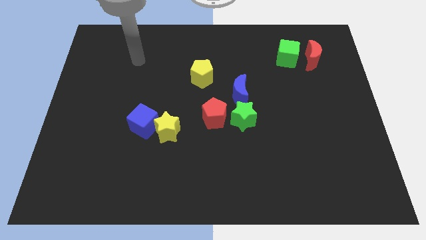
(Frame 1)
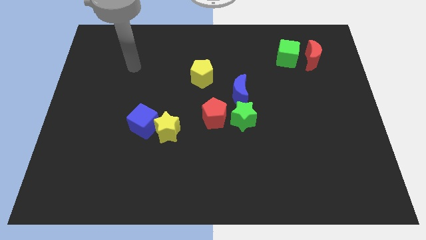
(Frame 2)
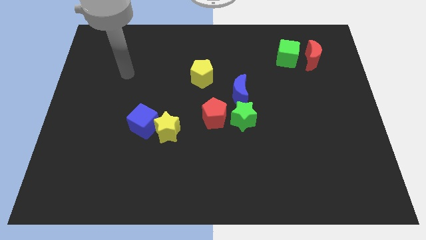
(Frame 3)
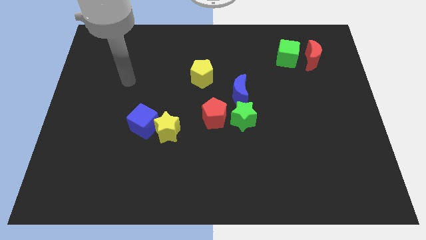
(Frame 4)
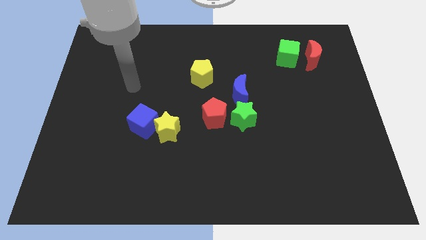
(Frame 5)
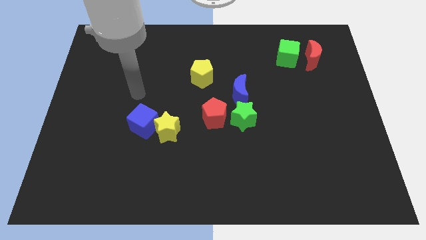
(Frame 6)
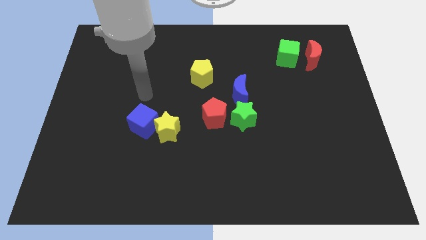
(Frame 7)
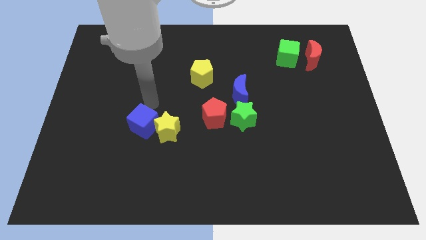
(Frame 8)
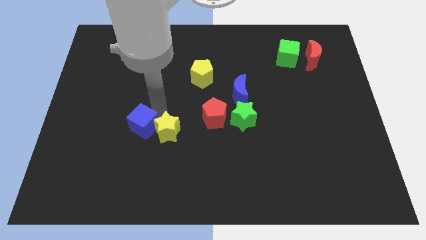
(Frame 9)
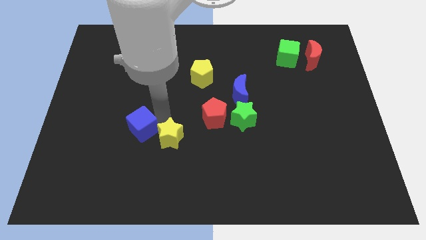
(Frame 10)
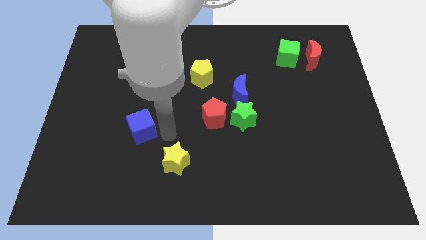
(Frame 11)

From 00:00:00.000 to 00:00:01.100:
move the blue cube away from the yellow star

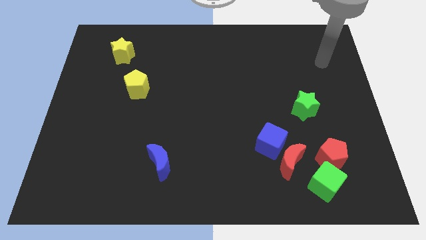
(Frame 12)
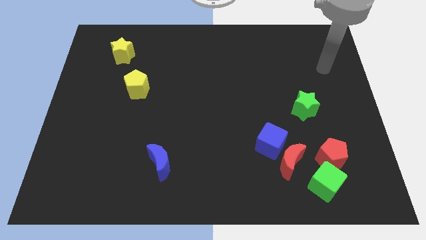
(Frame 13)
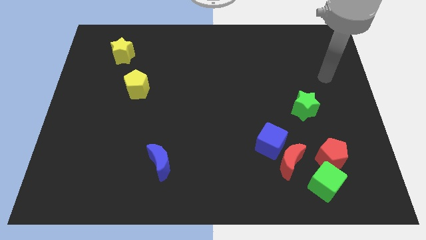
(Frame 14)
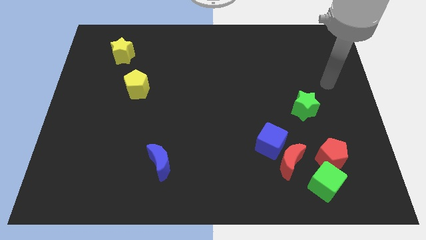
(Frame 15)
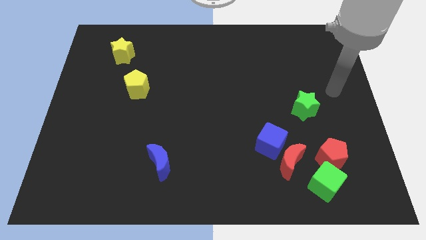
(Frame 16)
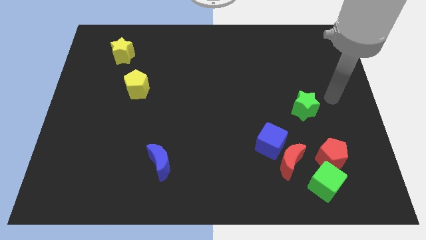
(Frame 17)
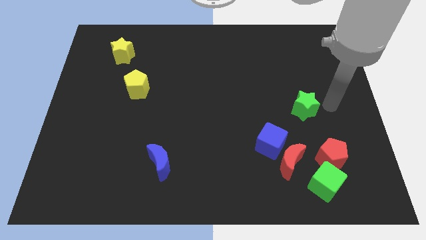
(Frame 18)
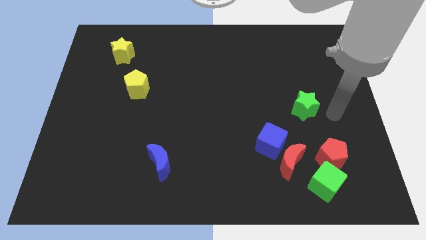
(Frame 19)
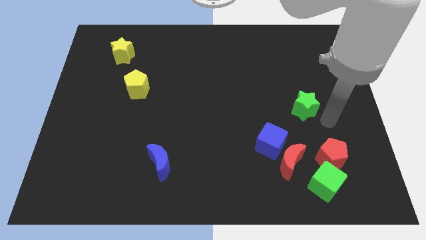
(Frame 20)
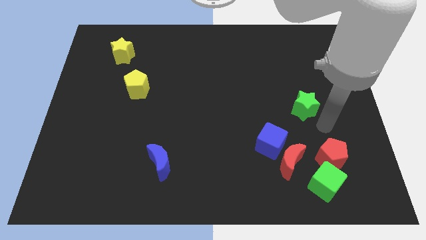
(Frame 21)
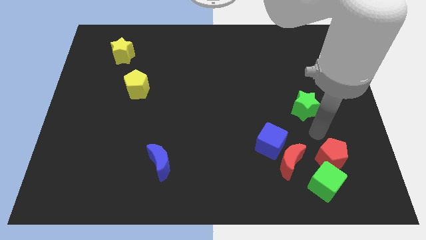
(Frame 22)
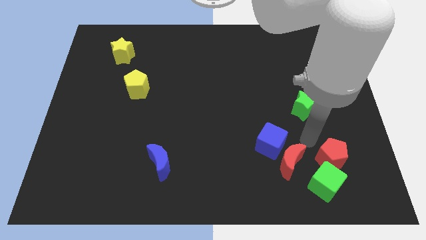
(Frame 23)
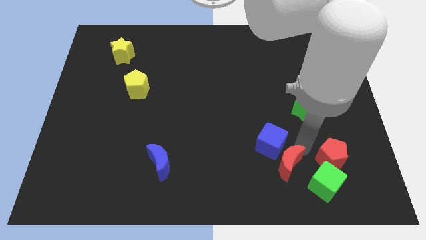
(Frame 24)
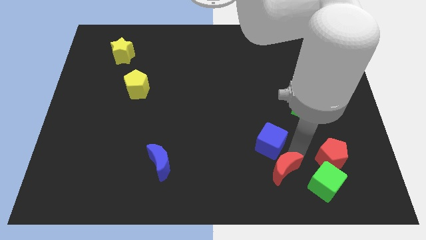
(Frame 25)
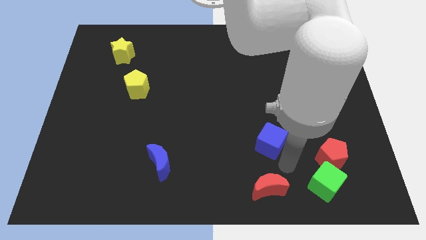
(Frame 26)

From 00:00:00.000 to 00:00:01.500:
move the blue cube away from the red moon

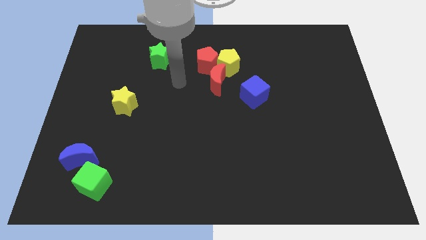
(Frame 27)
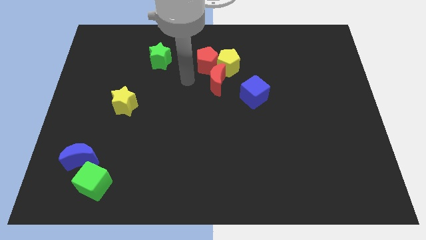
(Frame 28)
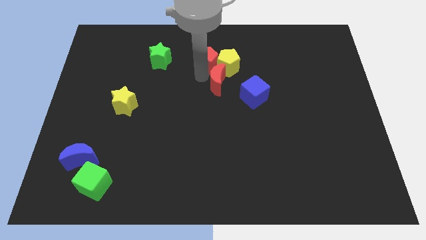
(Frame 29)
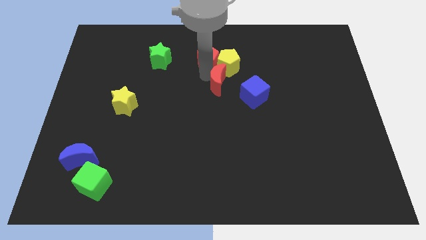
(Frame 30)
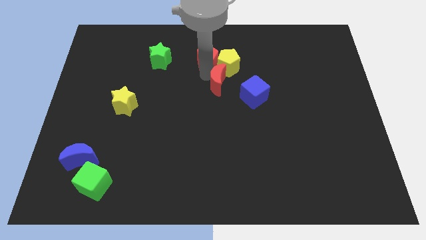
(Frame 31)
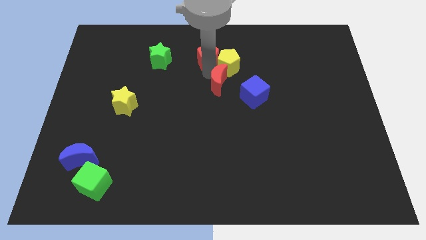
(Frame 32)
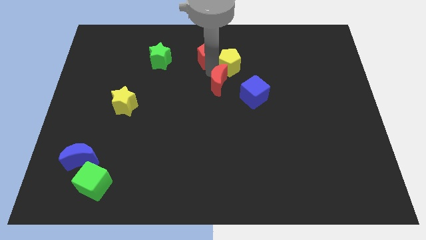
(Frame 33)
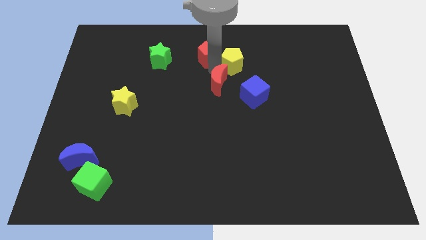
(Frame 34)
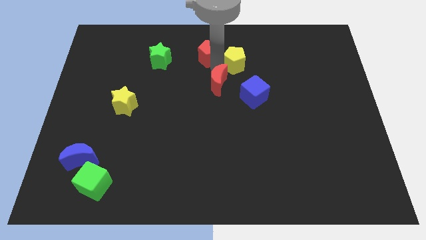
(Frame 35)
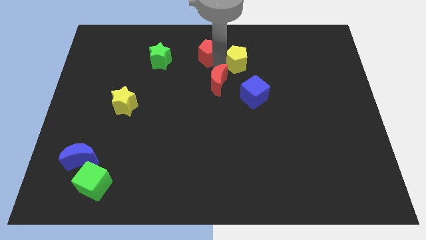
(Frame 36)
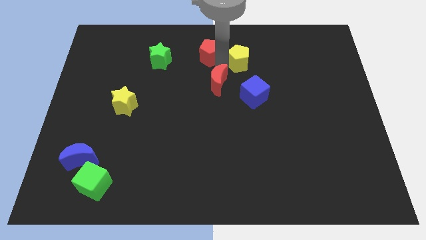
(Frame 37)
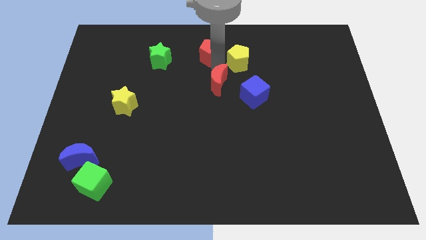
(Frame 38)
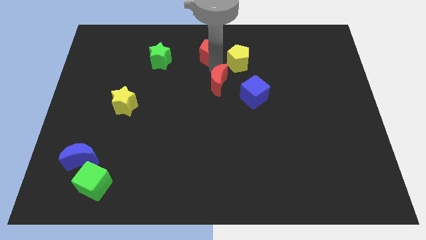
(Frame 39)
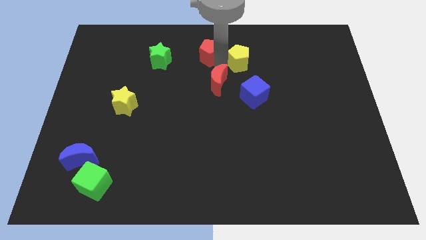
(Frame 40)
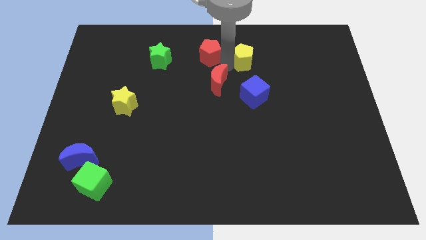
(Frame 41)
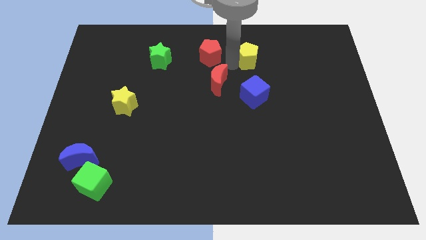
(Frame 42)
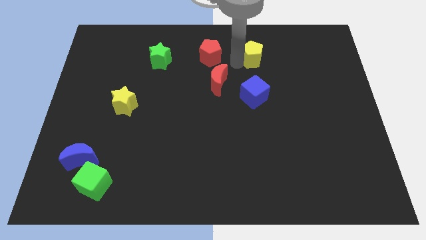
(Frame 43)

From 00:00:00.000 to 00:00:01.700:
separate the yellow pentagon from the red pentagon and red moon

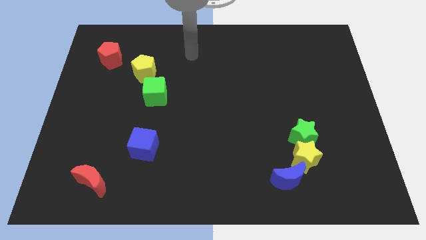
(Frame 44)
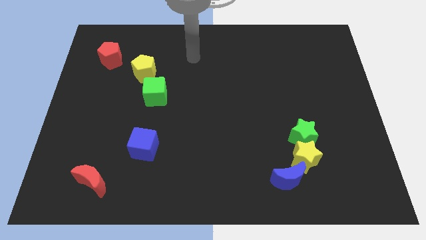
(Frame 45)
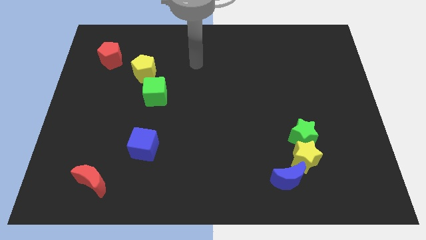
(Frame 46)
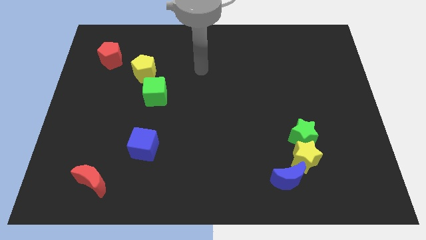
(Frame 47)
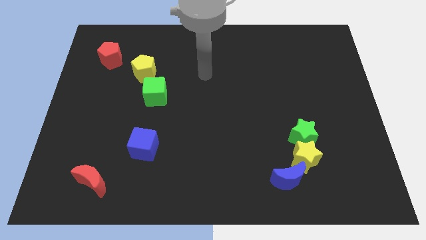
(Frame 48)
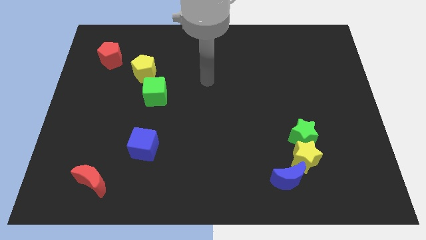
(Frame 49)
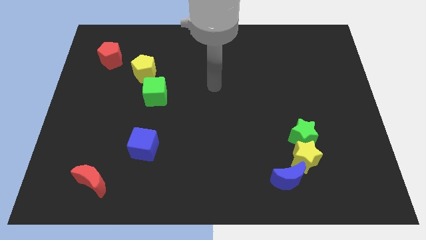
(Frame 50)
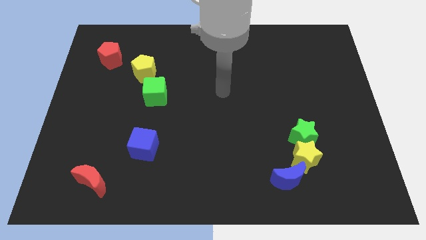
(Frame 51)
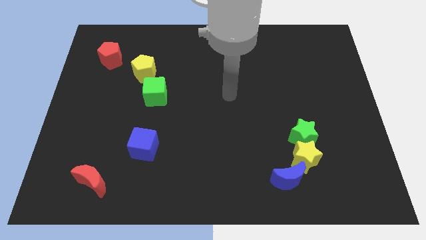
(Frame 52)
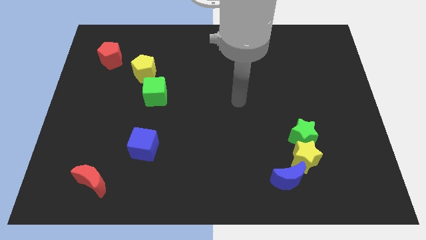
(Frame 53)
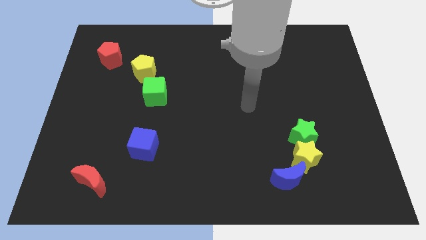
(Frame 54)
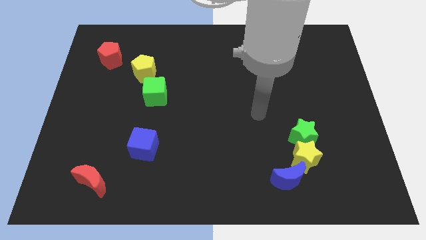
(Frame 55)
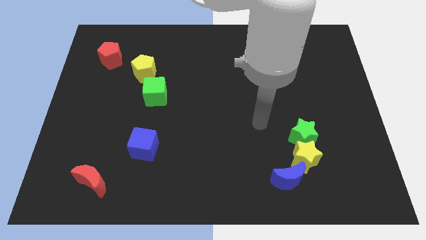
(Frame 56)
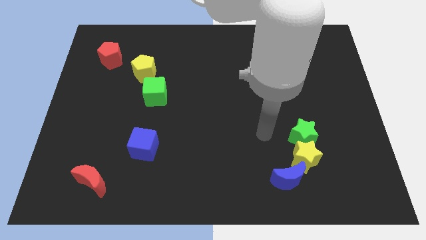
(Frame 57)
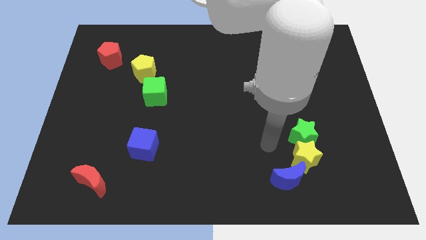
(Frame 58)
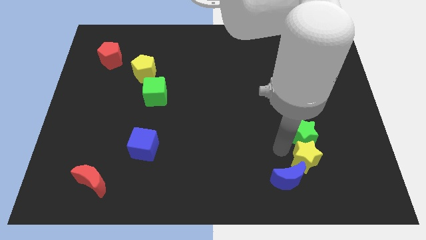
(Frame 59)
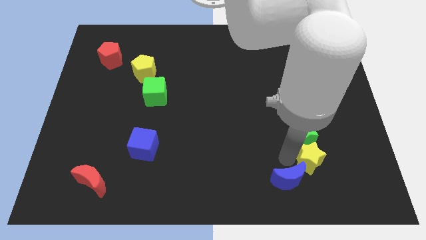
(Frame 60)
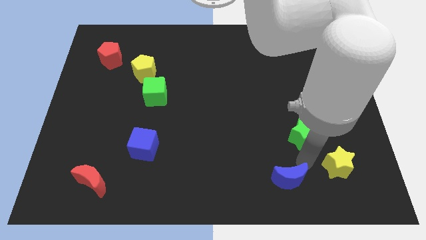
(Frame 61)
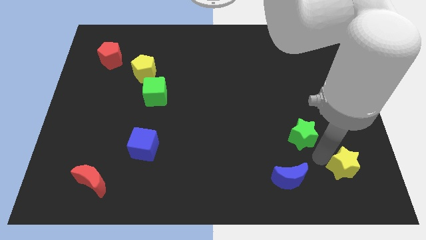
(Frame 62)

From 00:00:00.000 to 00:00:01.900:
separate the green star from the yellow star

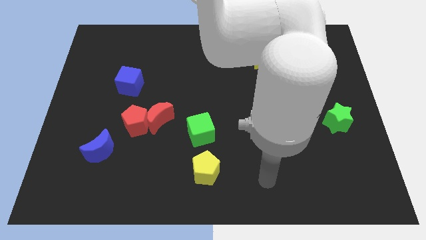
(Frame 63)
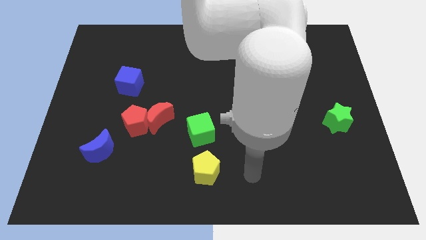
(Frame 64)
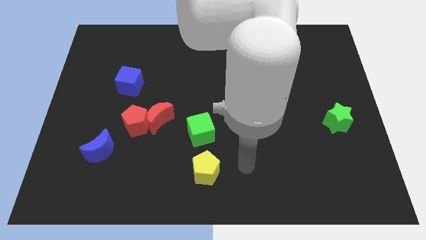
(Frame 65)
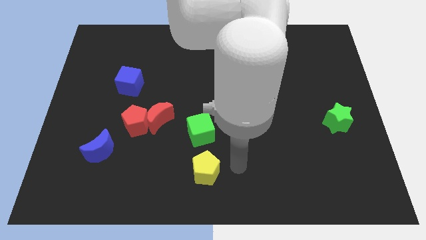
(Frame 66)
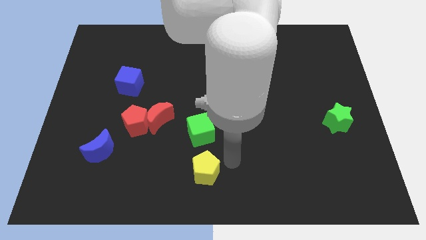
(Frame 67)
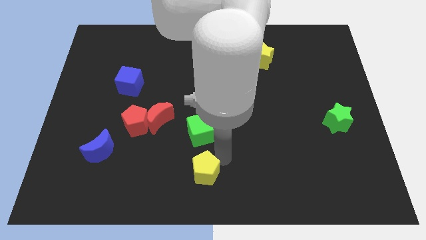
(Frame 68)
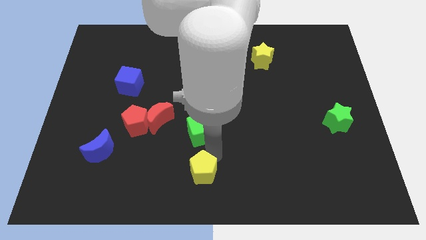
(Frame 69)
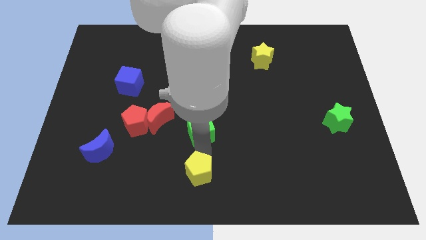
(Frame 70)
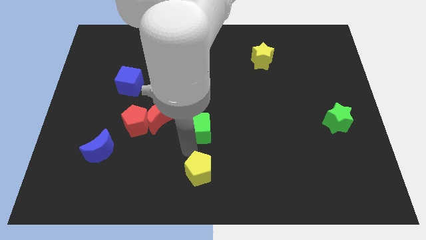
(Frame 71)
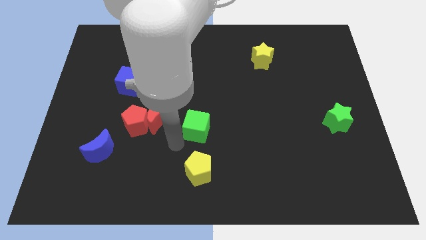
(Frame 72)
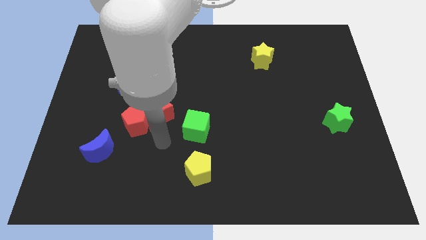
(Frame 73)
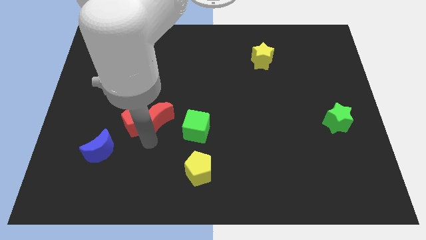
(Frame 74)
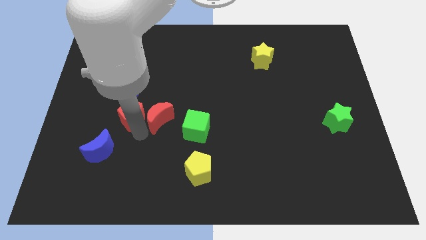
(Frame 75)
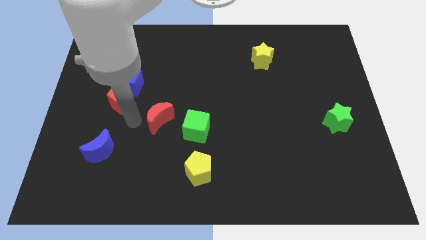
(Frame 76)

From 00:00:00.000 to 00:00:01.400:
pull the red moon apart from the red pentagon

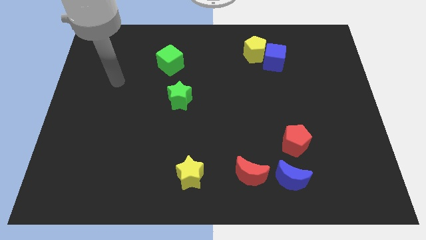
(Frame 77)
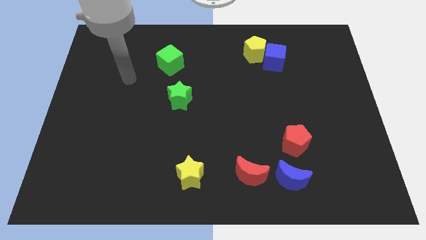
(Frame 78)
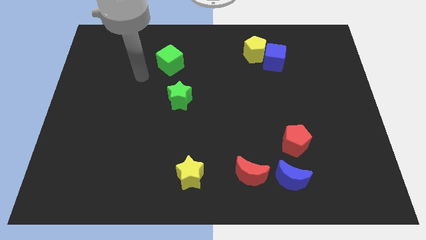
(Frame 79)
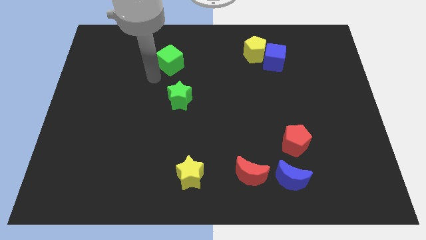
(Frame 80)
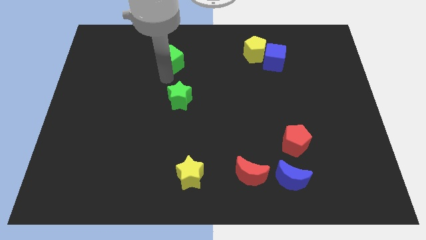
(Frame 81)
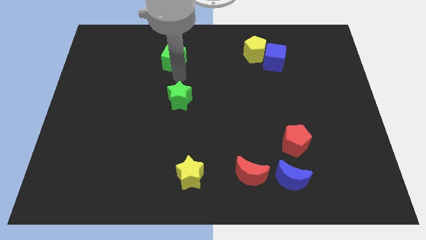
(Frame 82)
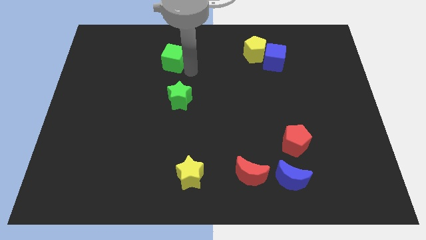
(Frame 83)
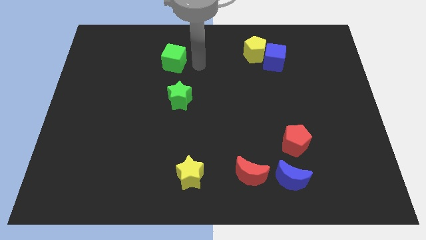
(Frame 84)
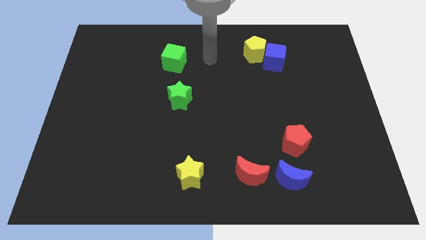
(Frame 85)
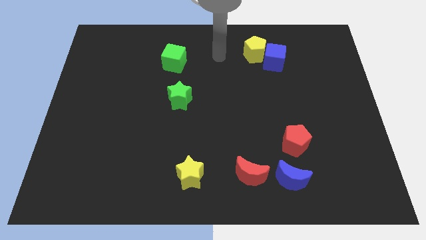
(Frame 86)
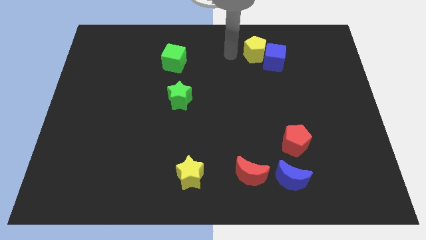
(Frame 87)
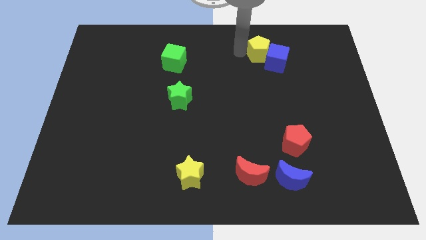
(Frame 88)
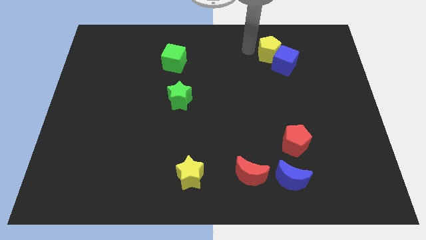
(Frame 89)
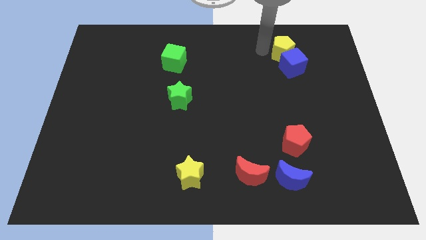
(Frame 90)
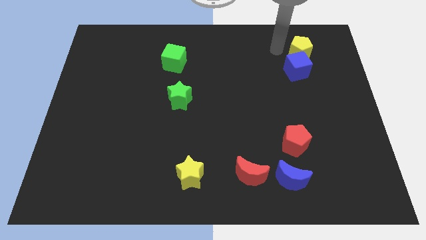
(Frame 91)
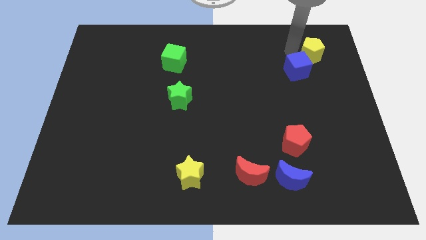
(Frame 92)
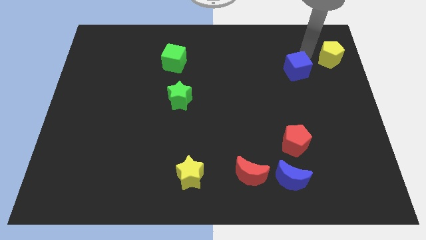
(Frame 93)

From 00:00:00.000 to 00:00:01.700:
move the blue cube away from the yellow pentagon

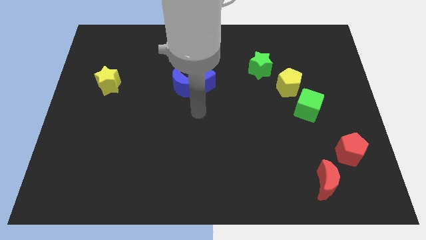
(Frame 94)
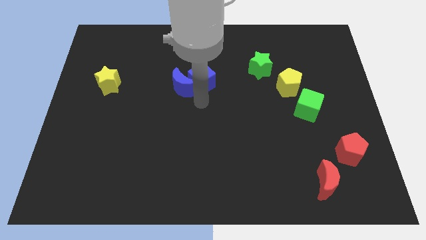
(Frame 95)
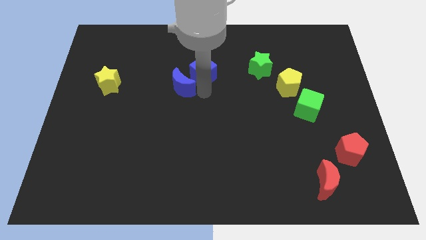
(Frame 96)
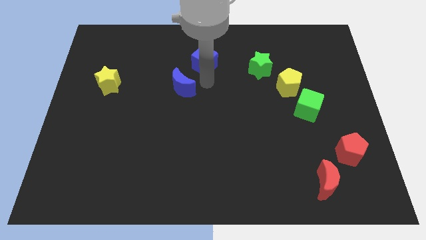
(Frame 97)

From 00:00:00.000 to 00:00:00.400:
move the blue moon away from the blue cube
